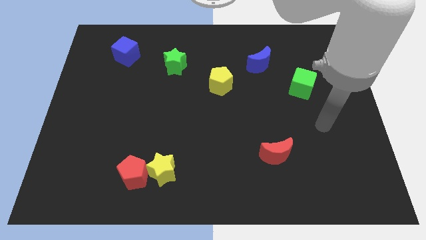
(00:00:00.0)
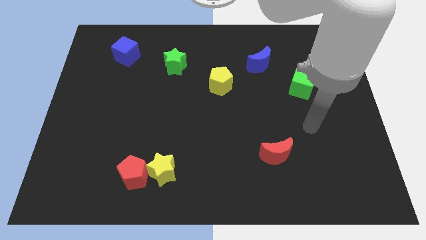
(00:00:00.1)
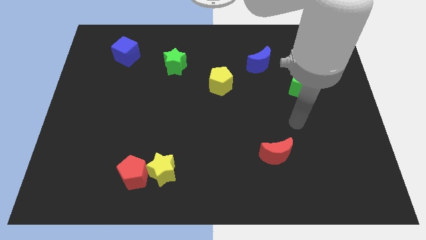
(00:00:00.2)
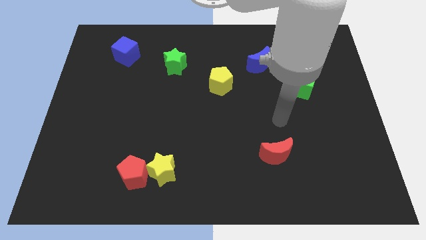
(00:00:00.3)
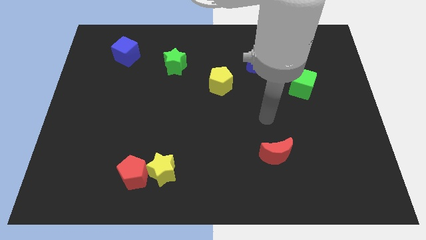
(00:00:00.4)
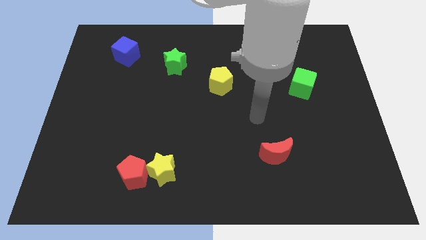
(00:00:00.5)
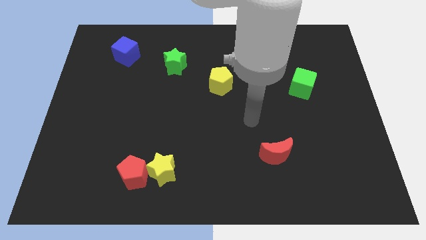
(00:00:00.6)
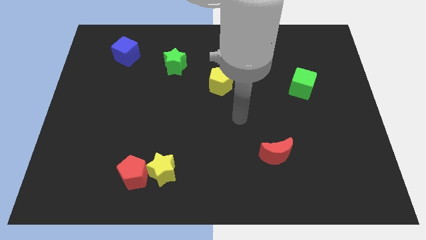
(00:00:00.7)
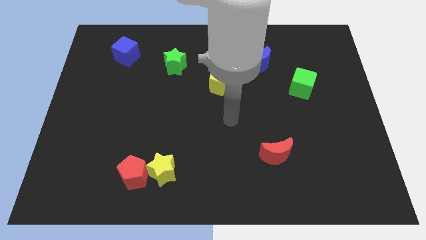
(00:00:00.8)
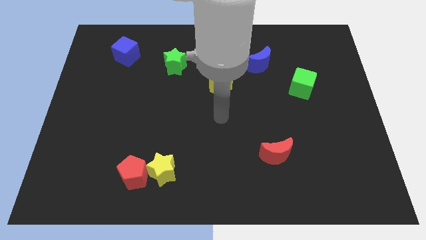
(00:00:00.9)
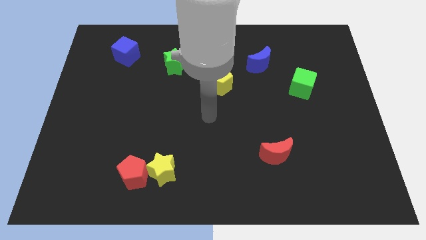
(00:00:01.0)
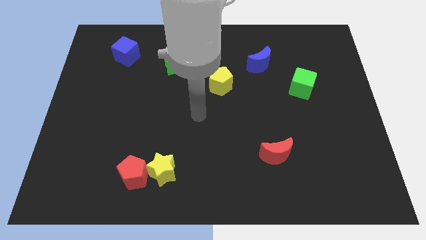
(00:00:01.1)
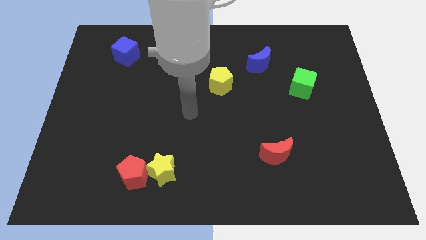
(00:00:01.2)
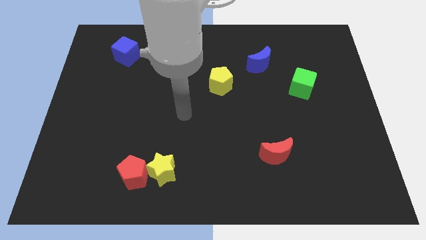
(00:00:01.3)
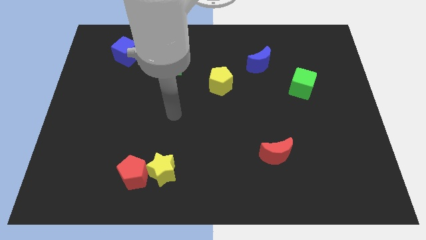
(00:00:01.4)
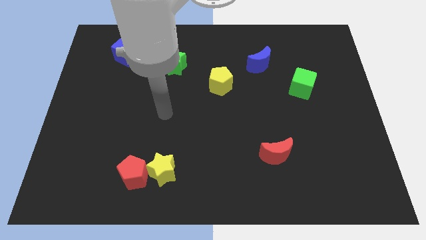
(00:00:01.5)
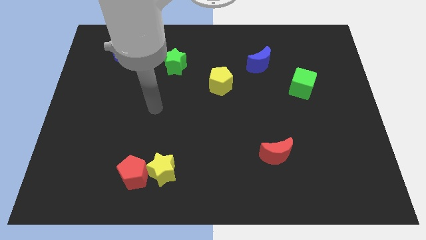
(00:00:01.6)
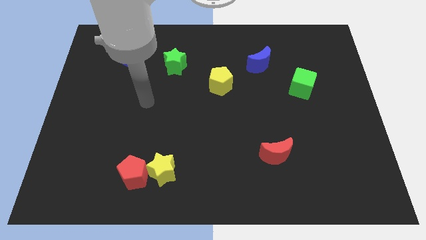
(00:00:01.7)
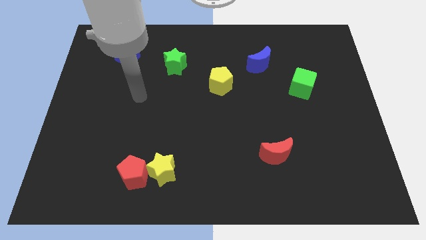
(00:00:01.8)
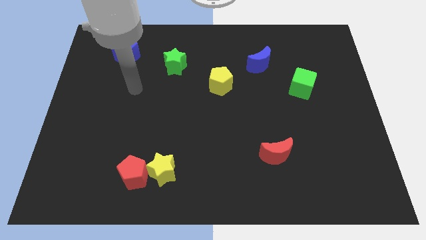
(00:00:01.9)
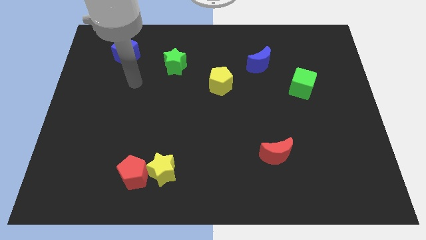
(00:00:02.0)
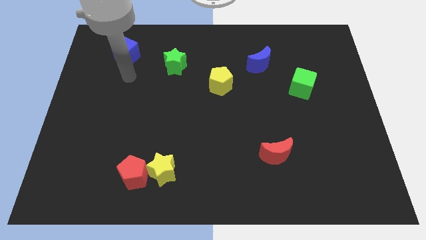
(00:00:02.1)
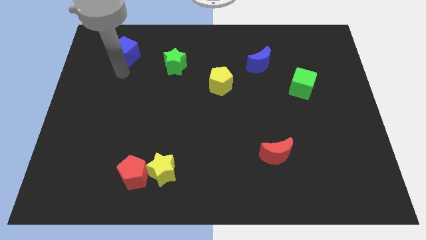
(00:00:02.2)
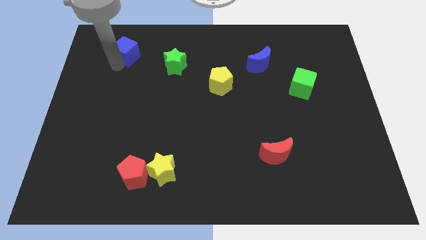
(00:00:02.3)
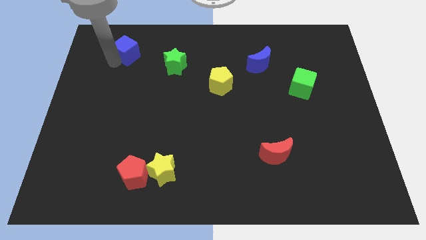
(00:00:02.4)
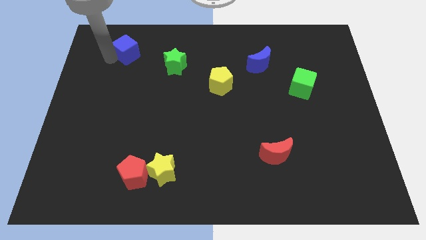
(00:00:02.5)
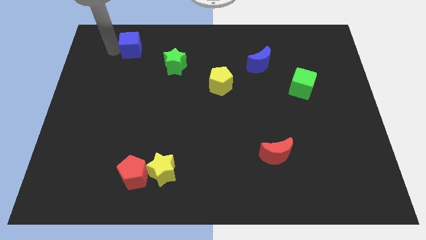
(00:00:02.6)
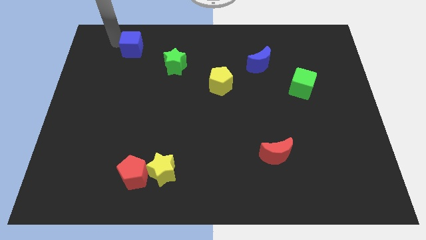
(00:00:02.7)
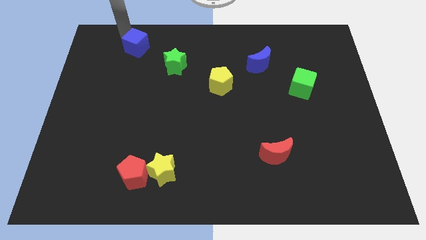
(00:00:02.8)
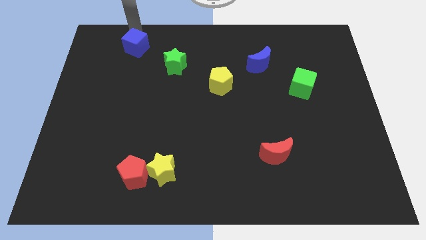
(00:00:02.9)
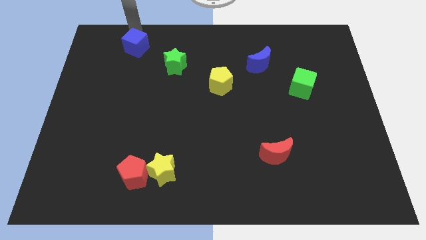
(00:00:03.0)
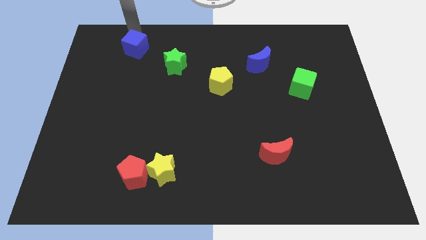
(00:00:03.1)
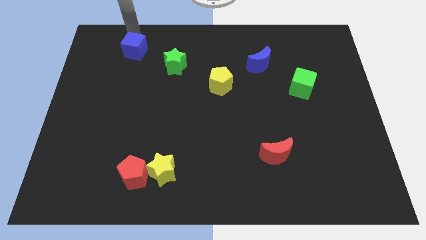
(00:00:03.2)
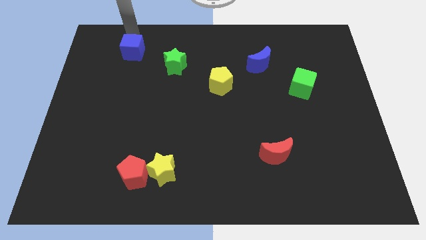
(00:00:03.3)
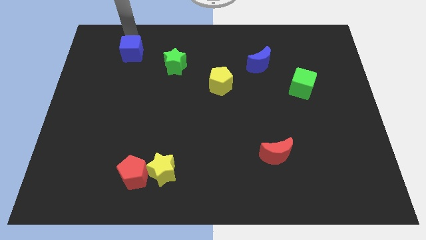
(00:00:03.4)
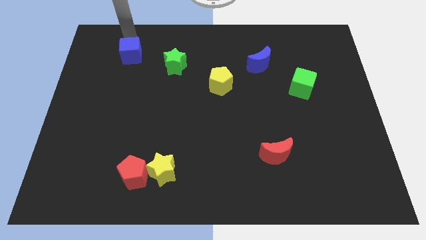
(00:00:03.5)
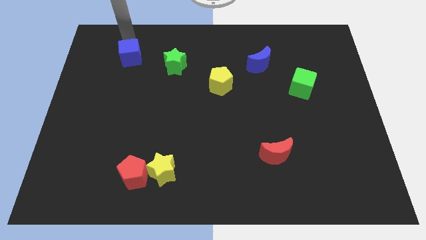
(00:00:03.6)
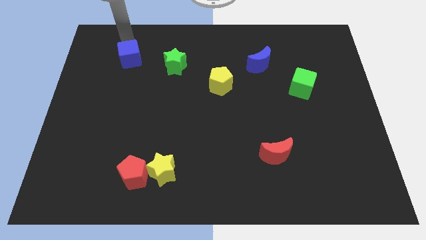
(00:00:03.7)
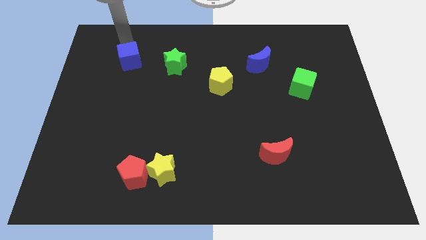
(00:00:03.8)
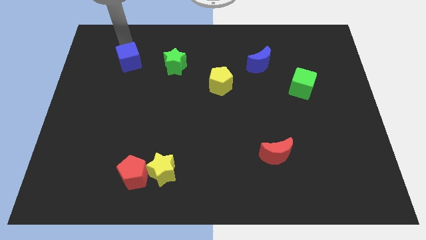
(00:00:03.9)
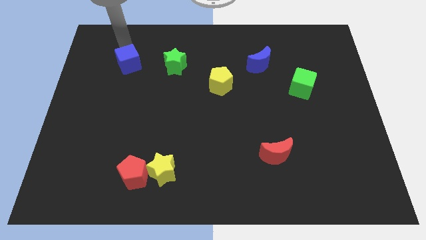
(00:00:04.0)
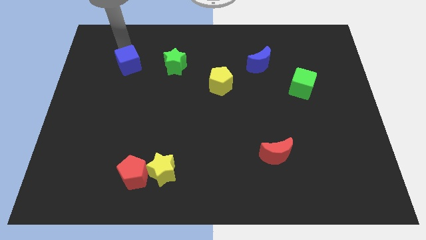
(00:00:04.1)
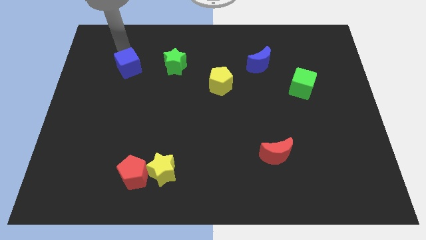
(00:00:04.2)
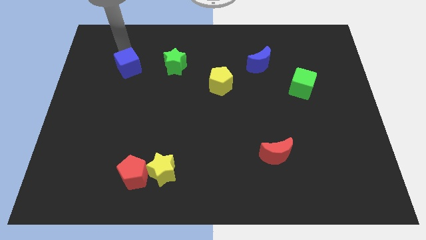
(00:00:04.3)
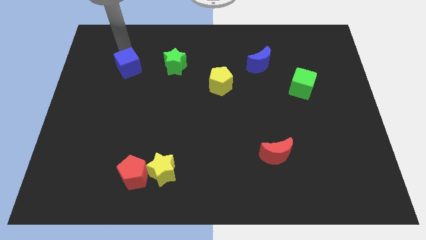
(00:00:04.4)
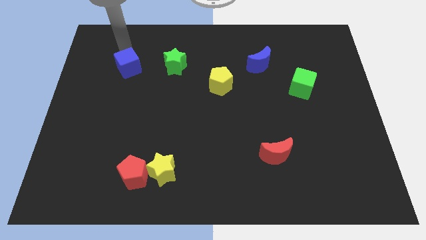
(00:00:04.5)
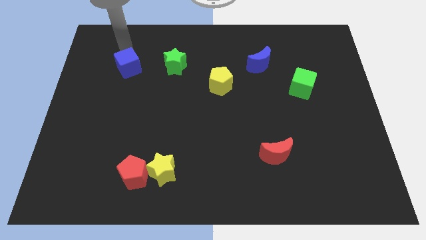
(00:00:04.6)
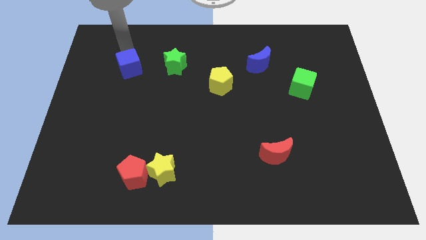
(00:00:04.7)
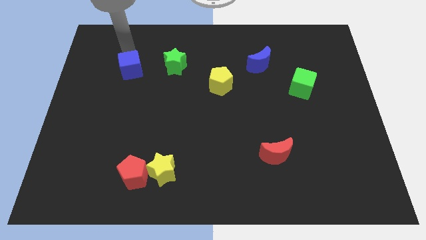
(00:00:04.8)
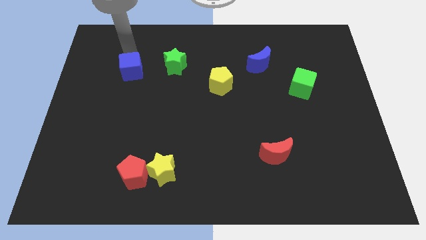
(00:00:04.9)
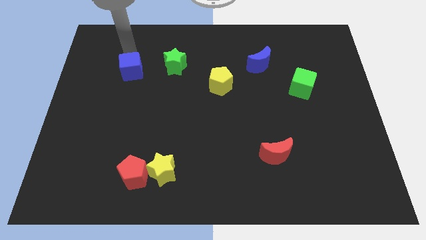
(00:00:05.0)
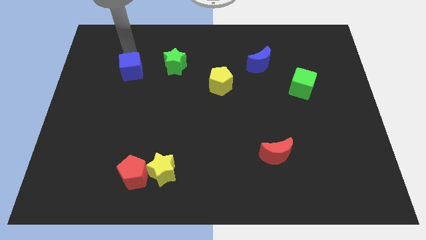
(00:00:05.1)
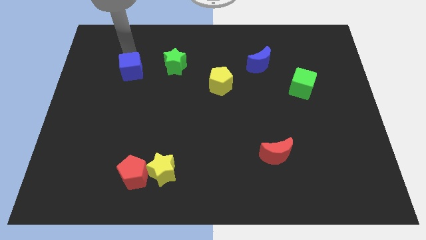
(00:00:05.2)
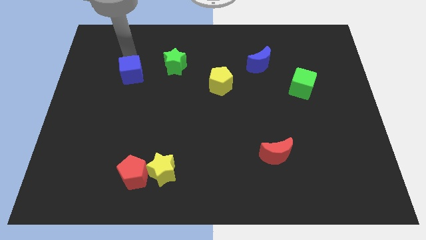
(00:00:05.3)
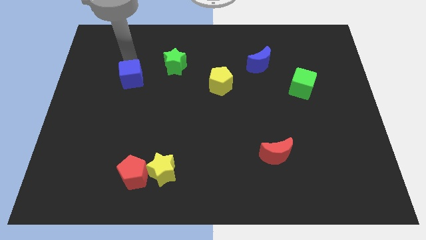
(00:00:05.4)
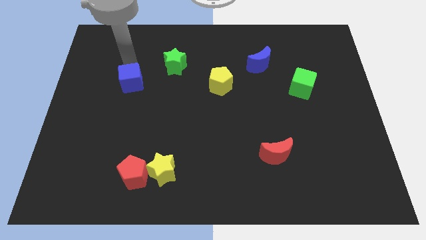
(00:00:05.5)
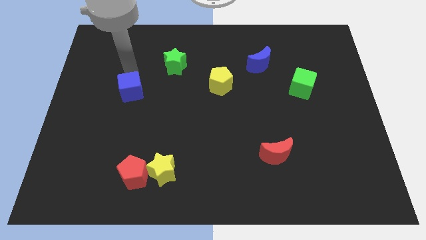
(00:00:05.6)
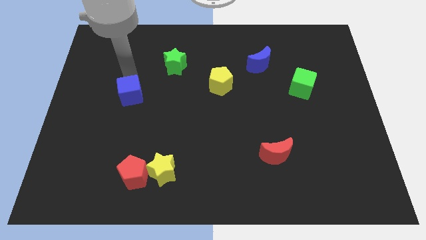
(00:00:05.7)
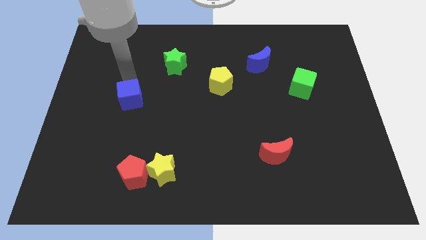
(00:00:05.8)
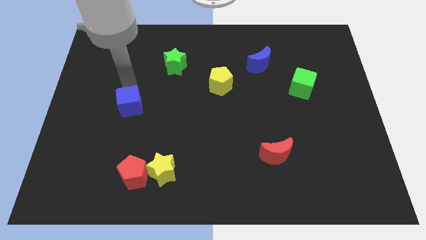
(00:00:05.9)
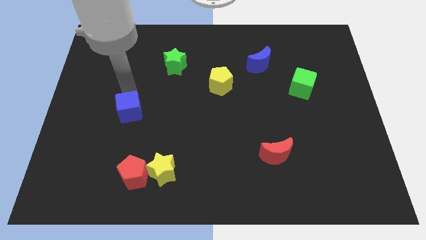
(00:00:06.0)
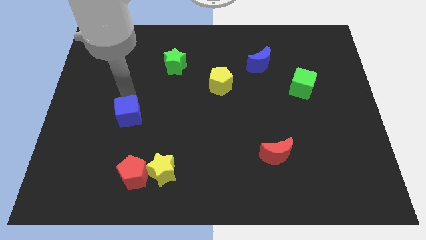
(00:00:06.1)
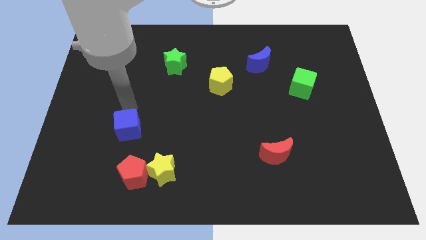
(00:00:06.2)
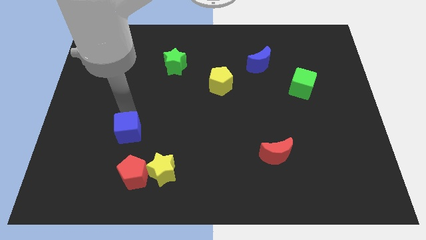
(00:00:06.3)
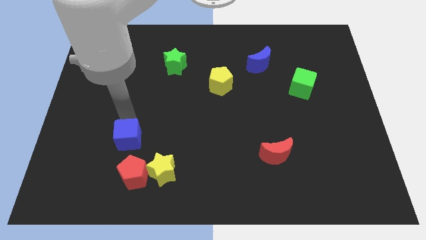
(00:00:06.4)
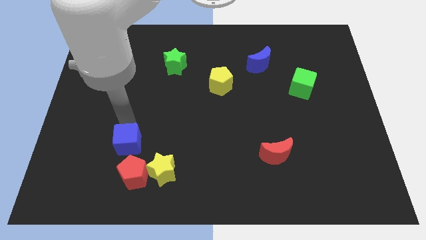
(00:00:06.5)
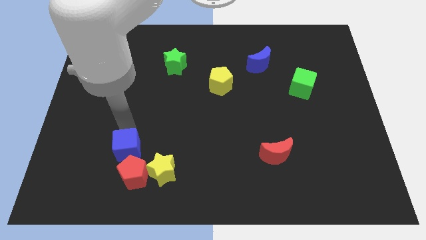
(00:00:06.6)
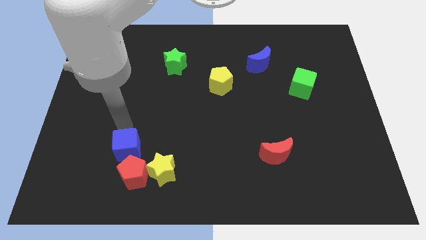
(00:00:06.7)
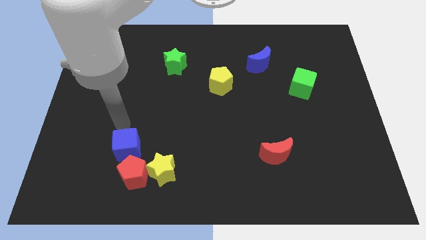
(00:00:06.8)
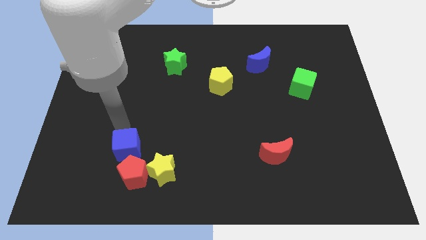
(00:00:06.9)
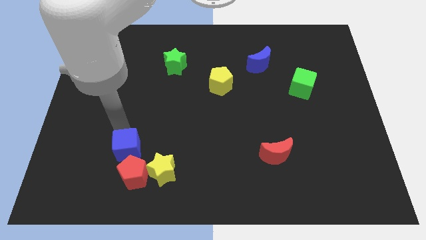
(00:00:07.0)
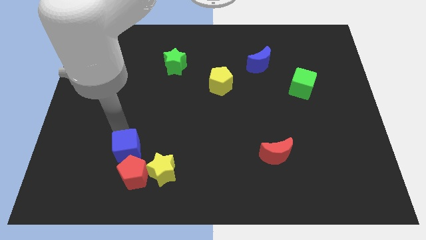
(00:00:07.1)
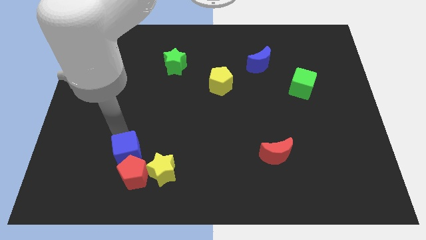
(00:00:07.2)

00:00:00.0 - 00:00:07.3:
put the blue cube close to the red pentagon
